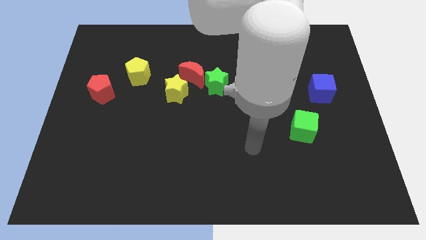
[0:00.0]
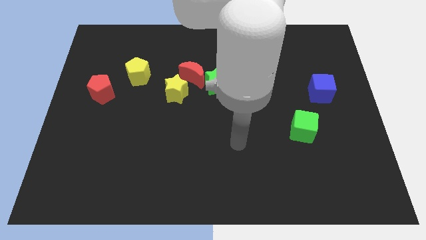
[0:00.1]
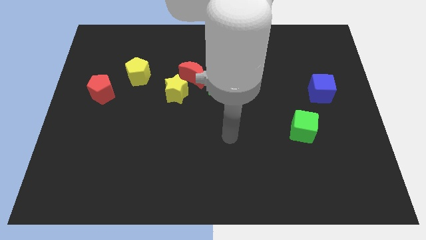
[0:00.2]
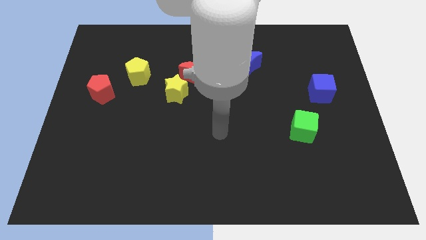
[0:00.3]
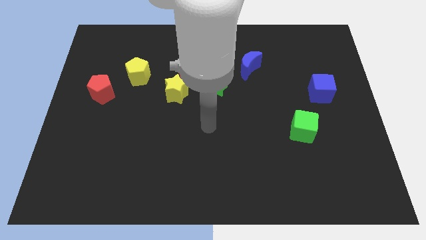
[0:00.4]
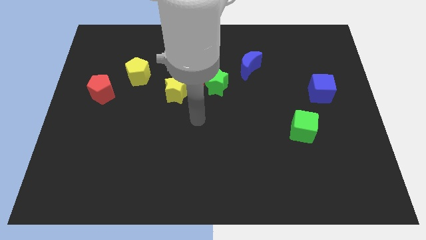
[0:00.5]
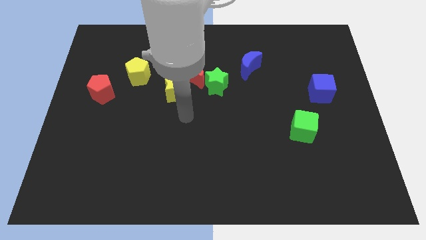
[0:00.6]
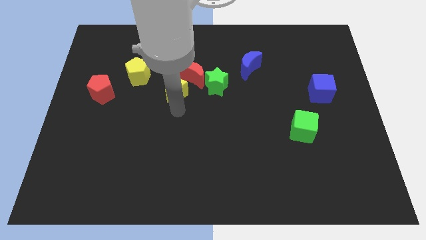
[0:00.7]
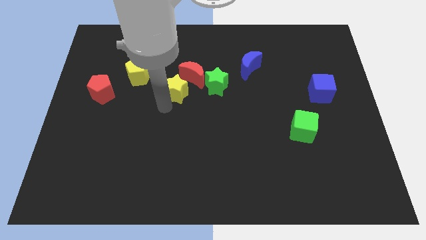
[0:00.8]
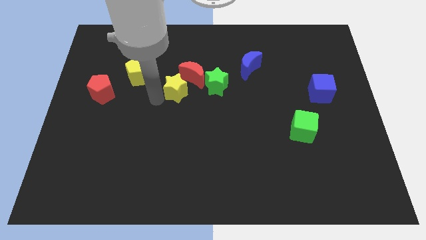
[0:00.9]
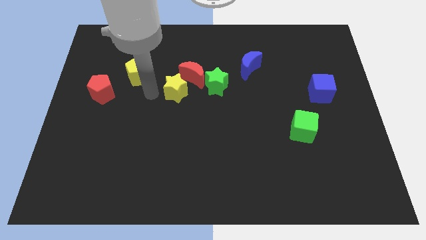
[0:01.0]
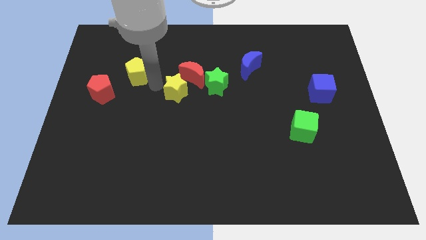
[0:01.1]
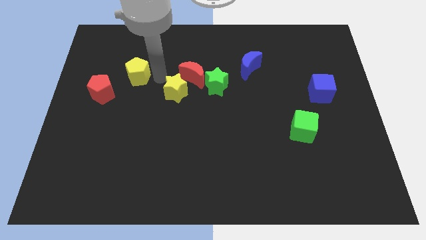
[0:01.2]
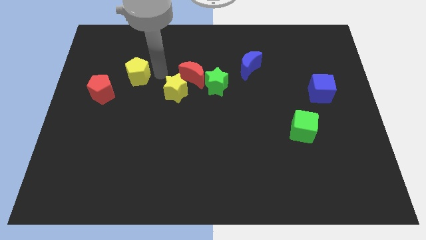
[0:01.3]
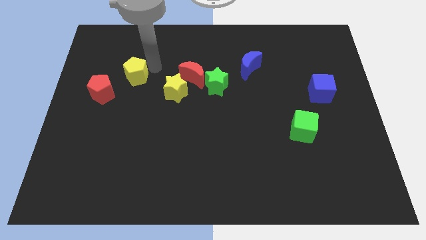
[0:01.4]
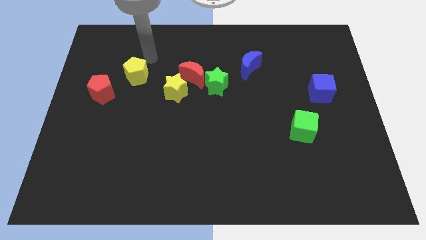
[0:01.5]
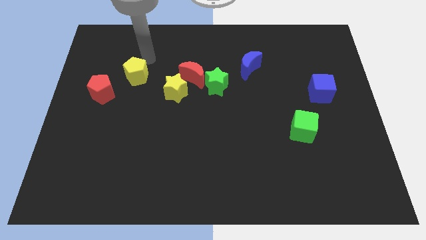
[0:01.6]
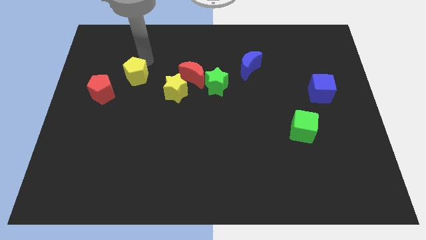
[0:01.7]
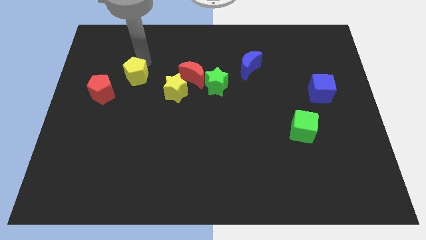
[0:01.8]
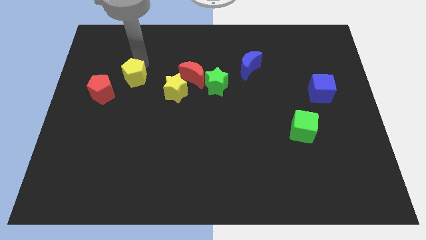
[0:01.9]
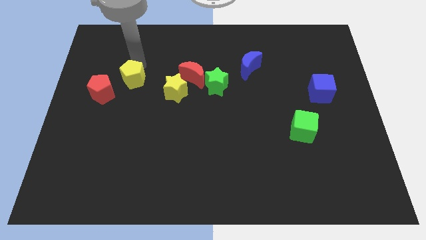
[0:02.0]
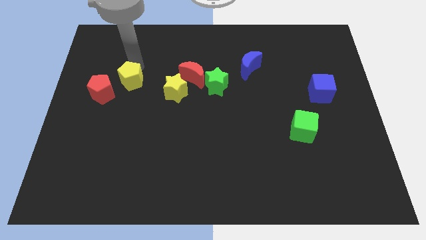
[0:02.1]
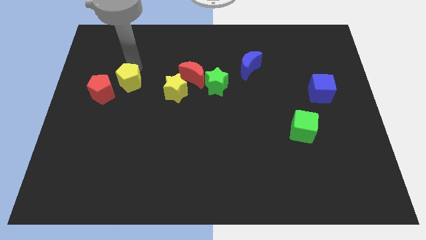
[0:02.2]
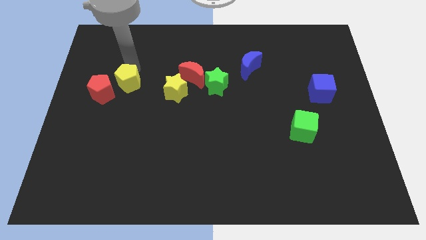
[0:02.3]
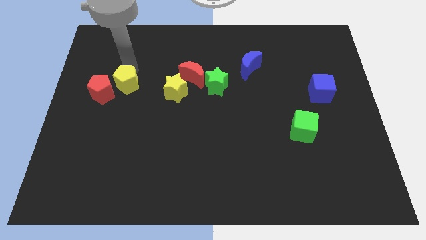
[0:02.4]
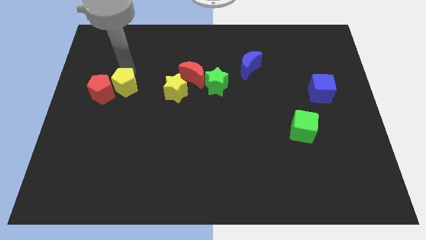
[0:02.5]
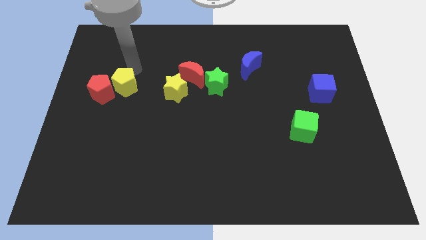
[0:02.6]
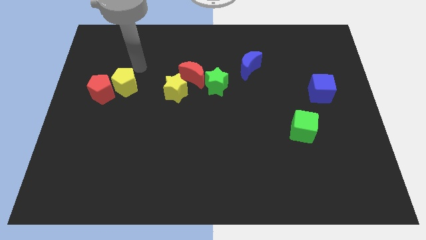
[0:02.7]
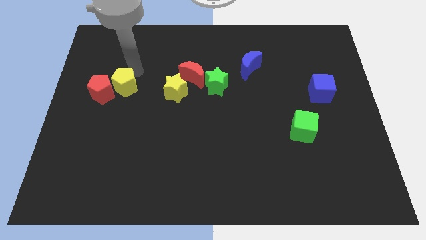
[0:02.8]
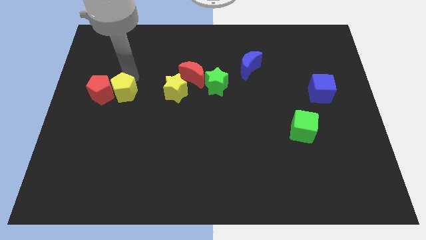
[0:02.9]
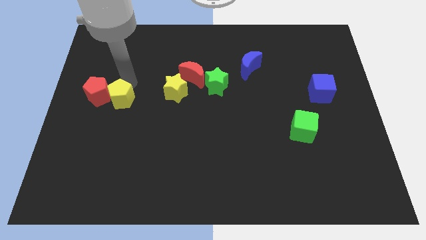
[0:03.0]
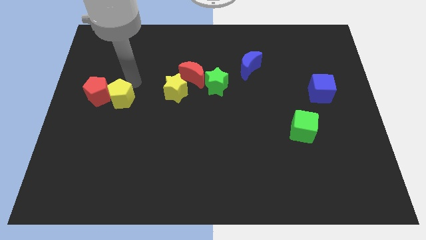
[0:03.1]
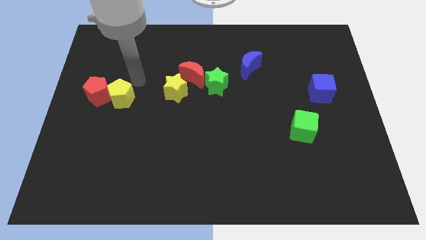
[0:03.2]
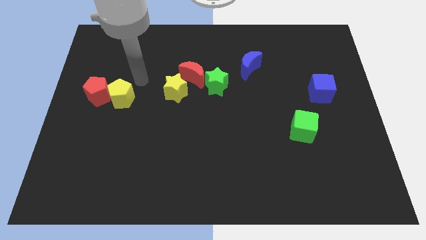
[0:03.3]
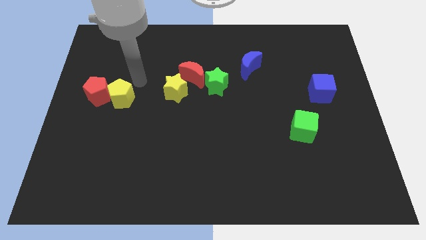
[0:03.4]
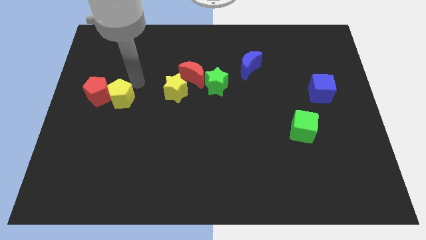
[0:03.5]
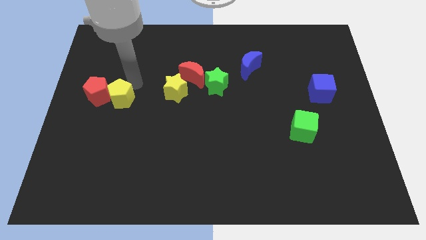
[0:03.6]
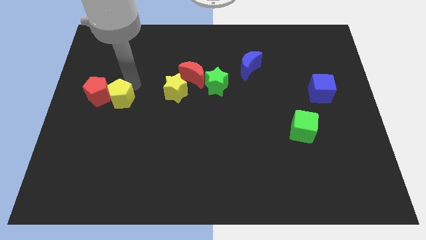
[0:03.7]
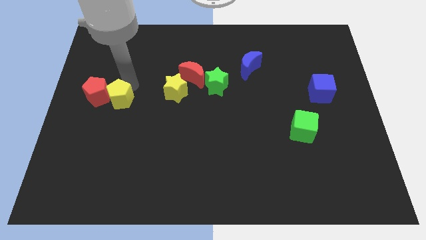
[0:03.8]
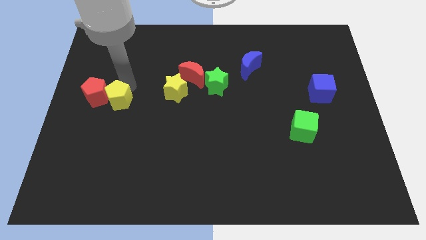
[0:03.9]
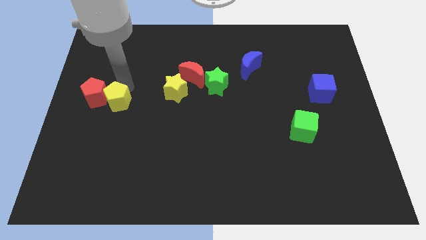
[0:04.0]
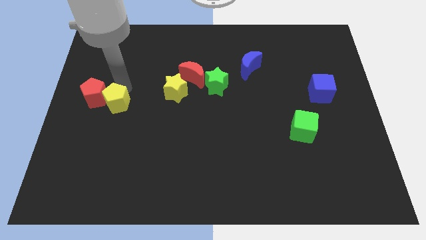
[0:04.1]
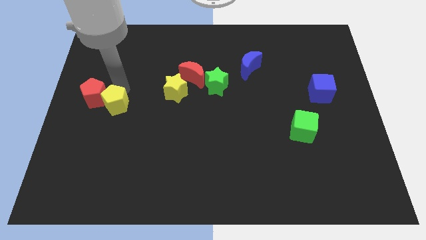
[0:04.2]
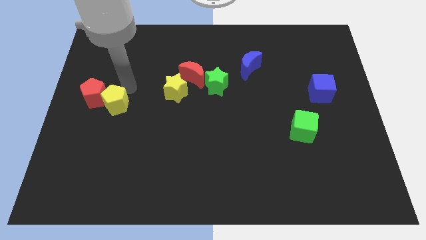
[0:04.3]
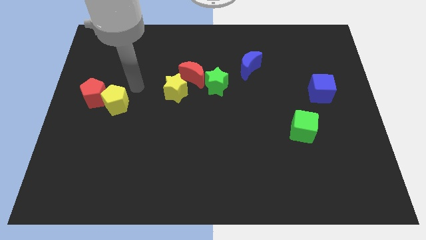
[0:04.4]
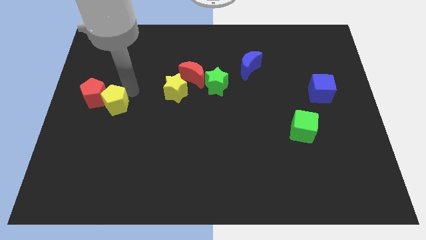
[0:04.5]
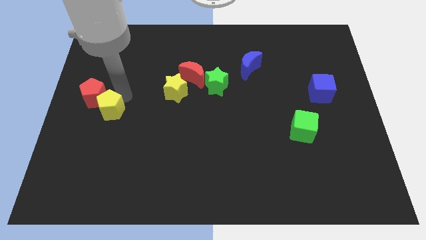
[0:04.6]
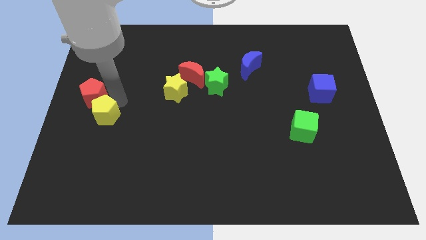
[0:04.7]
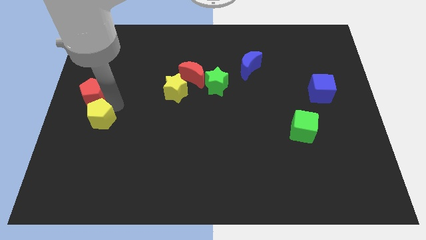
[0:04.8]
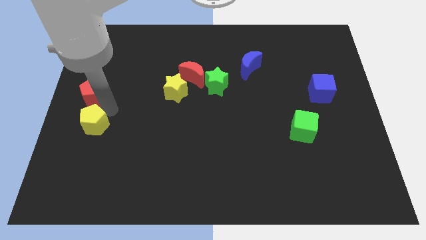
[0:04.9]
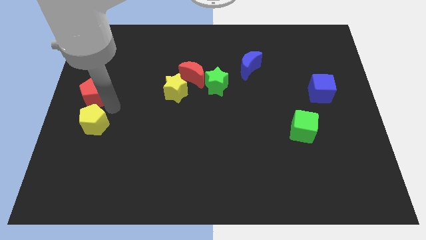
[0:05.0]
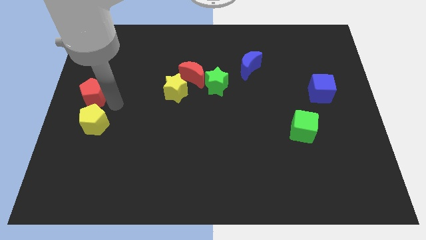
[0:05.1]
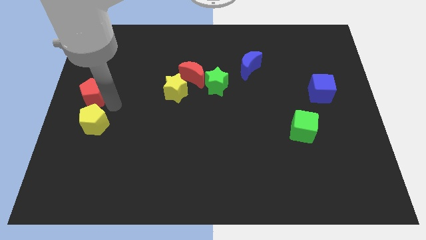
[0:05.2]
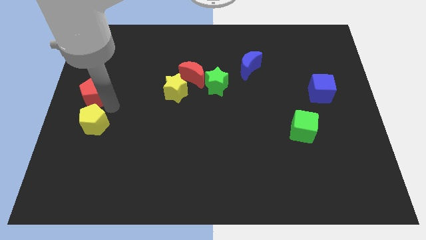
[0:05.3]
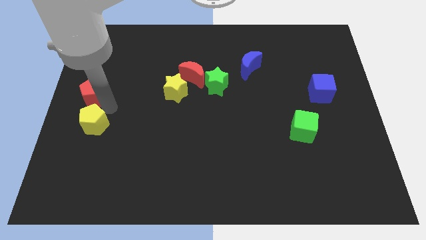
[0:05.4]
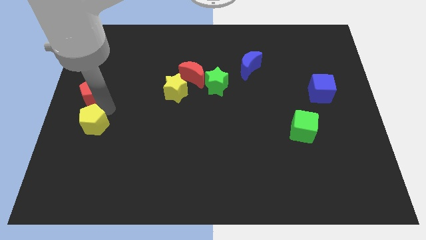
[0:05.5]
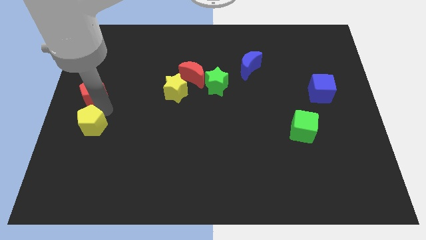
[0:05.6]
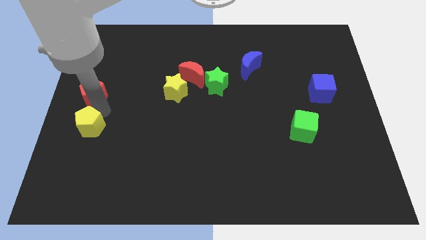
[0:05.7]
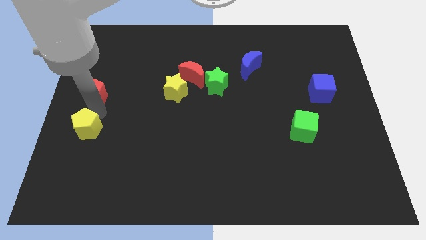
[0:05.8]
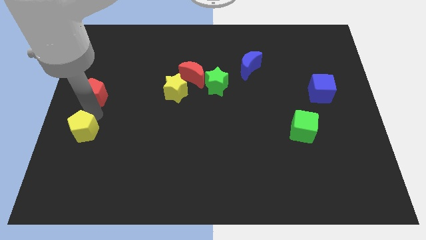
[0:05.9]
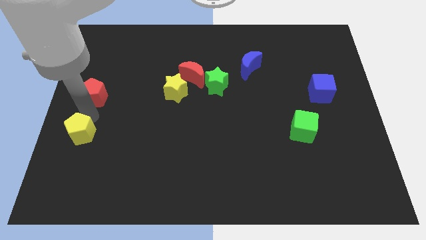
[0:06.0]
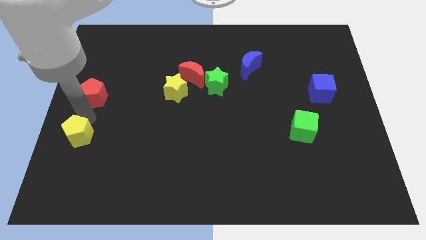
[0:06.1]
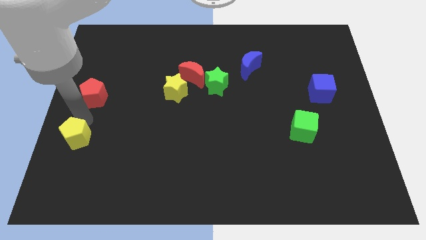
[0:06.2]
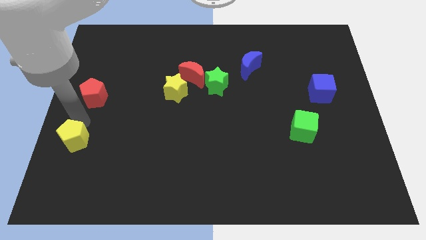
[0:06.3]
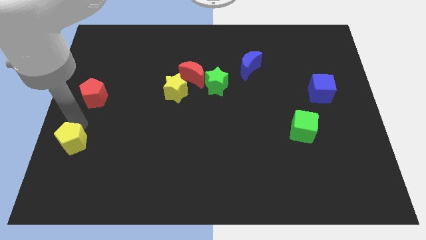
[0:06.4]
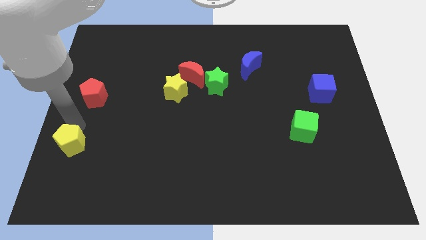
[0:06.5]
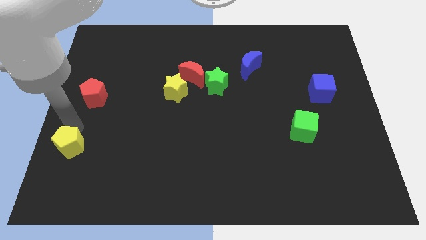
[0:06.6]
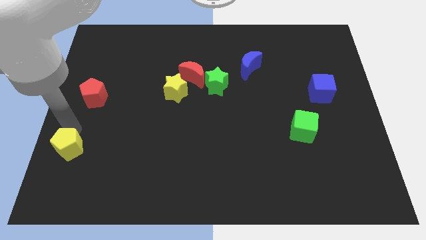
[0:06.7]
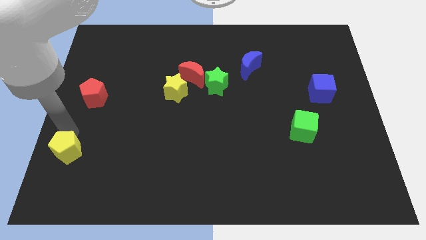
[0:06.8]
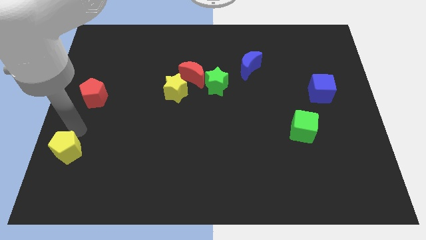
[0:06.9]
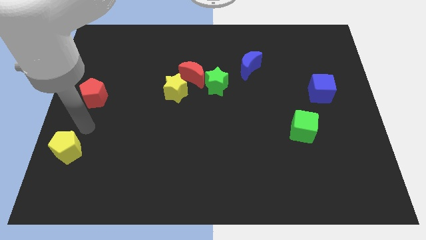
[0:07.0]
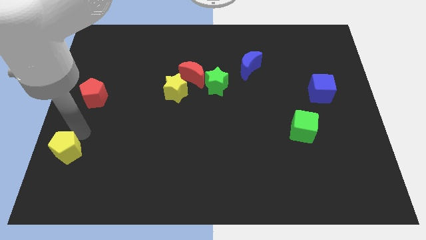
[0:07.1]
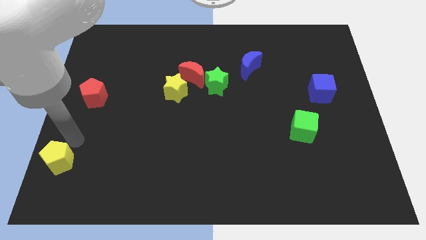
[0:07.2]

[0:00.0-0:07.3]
slide the yellow pentagon to the bottom left
